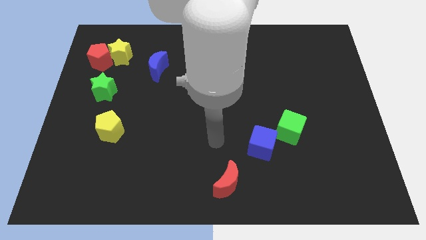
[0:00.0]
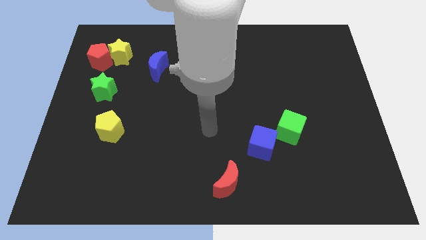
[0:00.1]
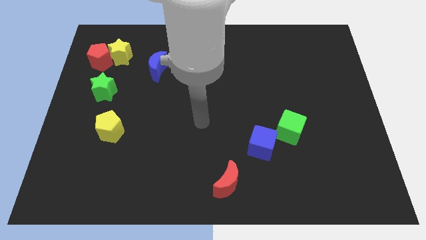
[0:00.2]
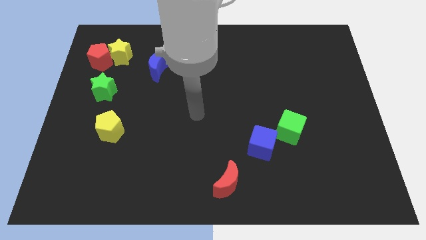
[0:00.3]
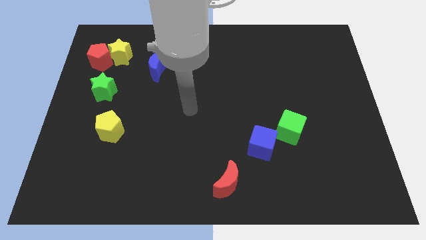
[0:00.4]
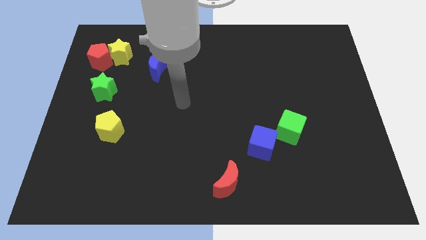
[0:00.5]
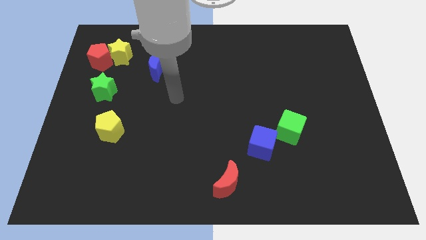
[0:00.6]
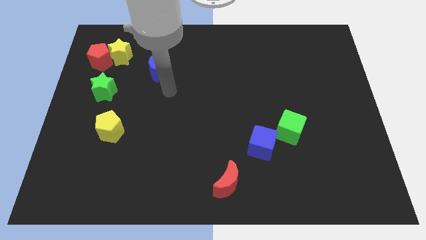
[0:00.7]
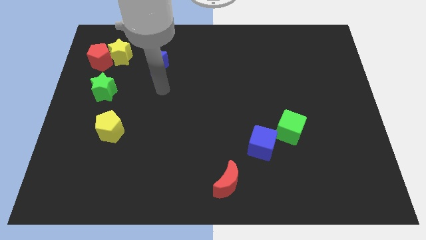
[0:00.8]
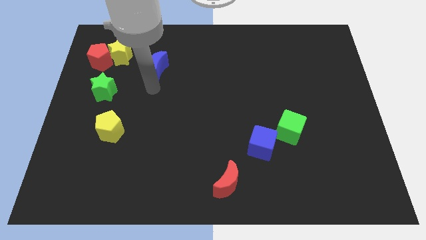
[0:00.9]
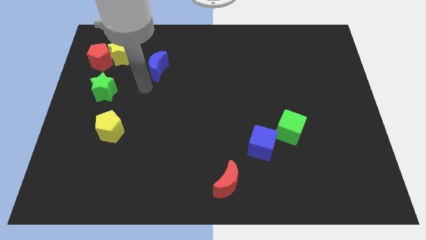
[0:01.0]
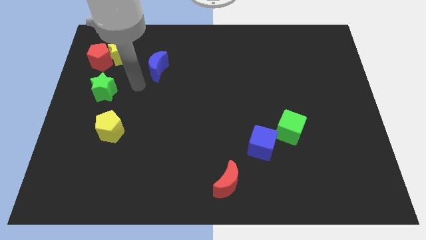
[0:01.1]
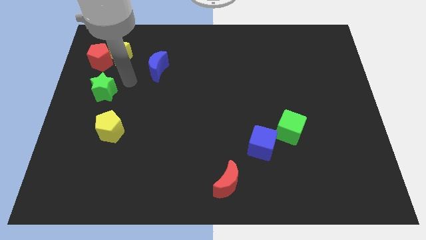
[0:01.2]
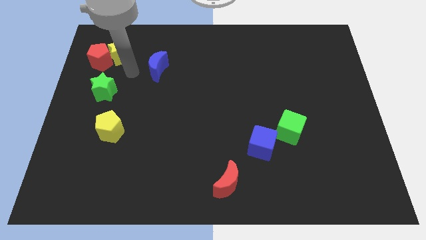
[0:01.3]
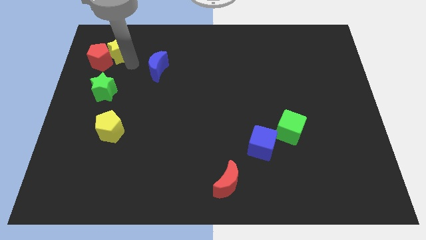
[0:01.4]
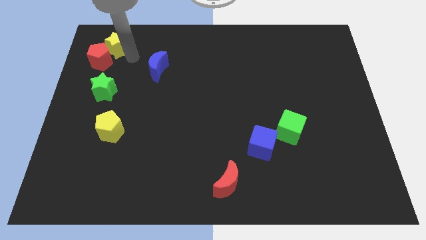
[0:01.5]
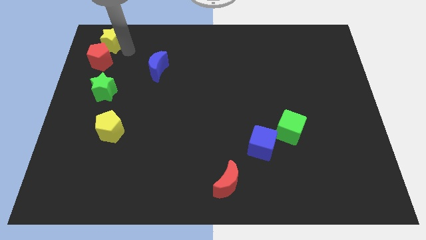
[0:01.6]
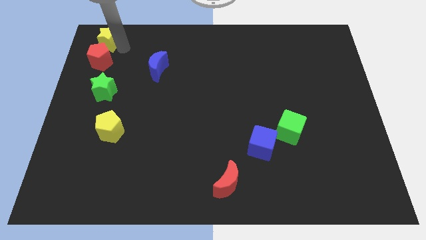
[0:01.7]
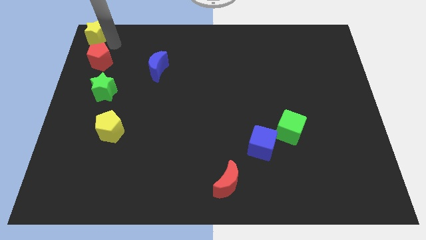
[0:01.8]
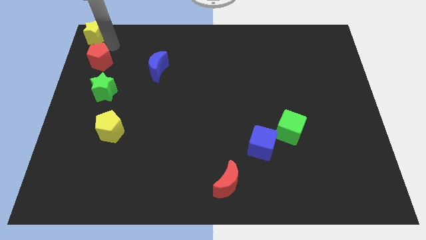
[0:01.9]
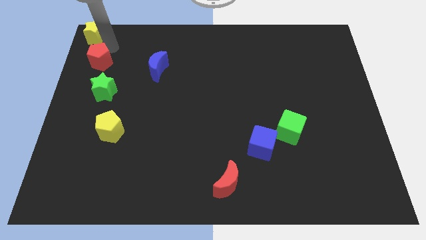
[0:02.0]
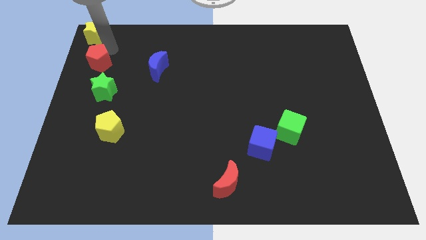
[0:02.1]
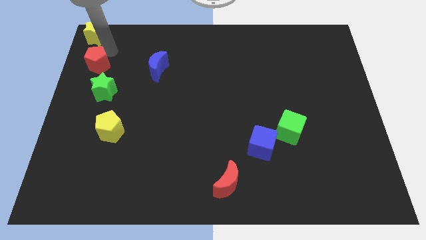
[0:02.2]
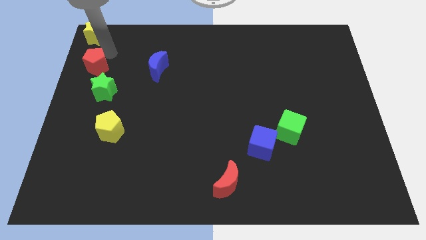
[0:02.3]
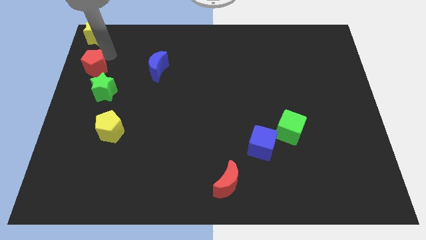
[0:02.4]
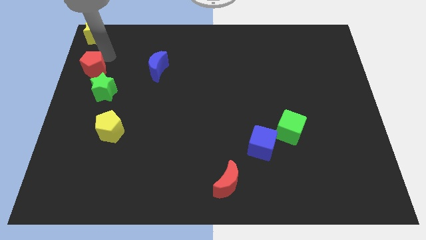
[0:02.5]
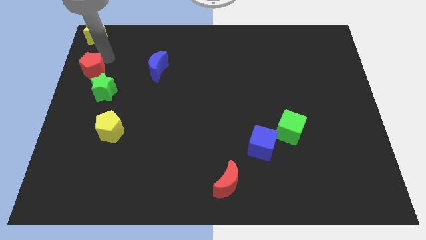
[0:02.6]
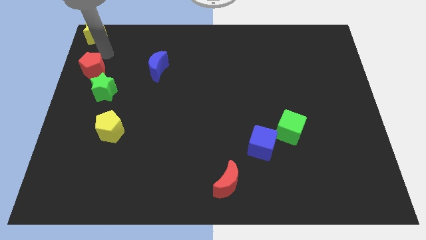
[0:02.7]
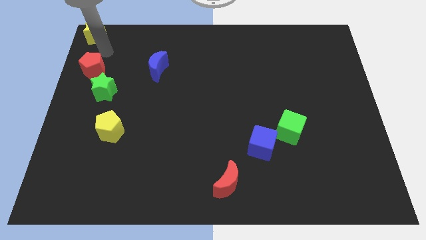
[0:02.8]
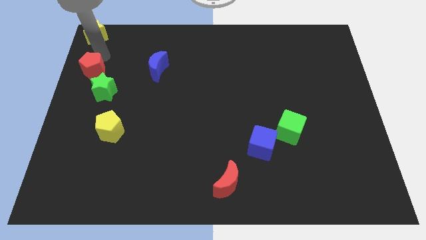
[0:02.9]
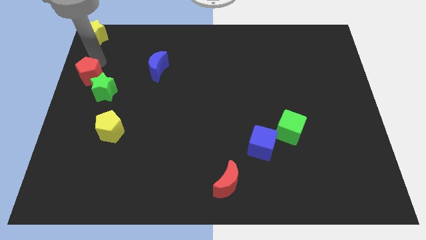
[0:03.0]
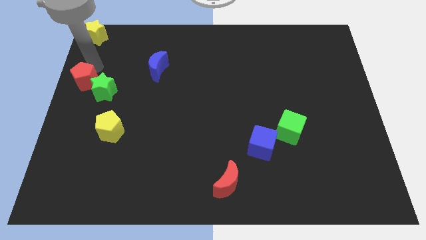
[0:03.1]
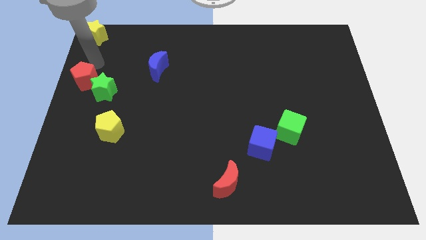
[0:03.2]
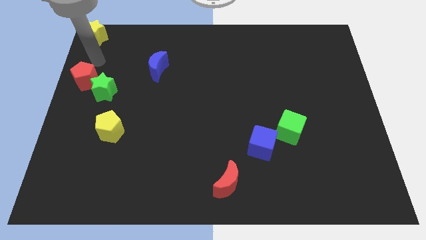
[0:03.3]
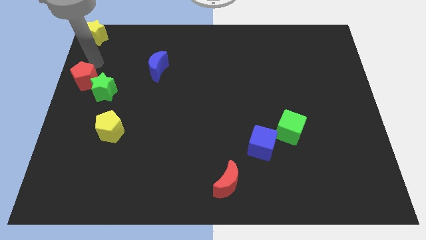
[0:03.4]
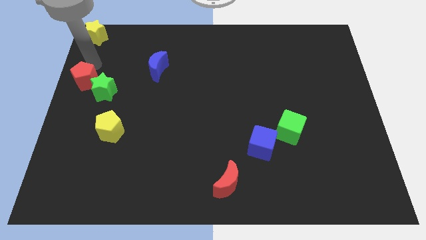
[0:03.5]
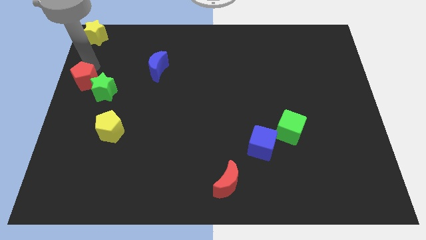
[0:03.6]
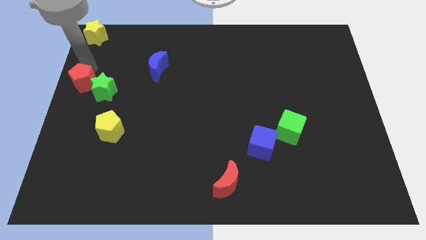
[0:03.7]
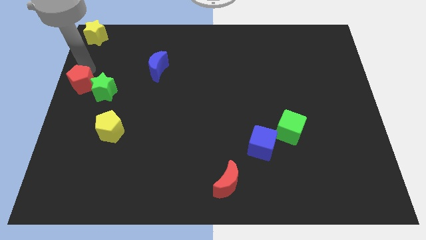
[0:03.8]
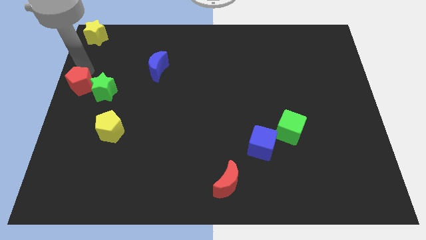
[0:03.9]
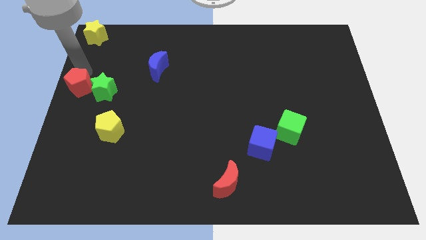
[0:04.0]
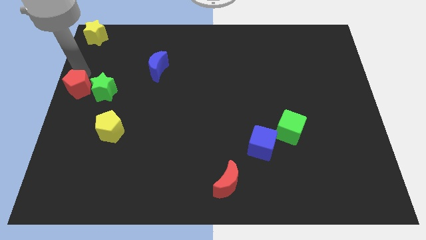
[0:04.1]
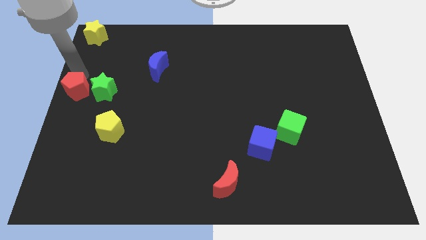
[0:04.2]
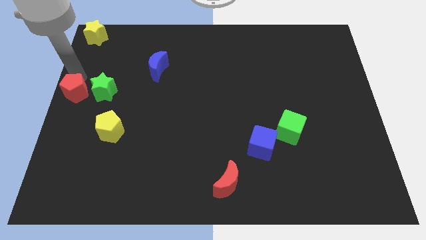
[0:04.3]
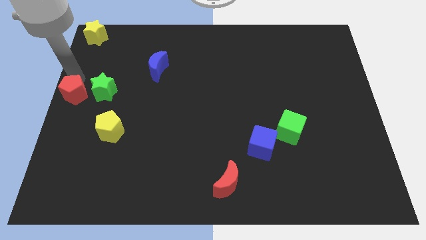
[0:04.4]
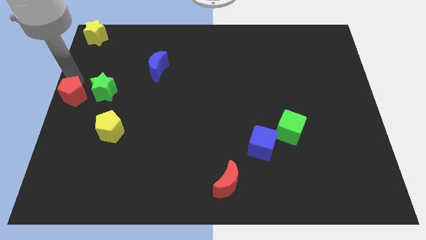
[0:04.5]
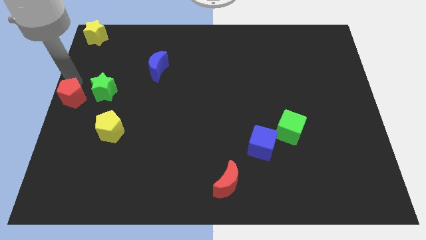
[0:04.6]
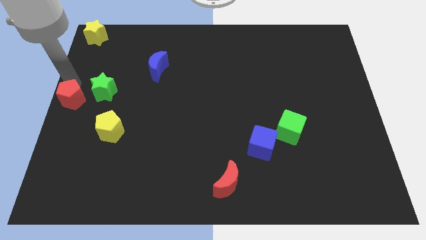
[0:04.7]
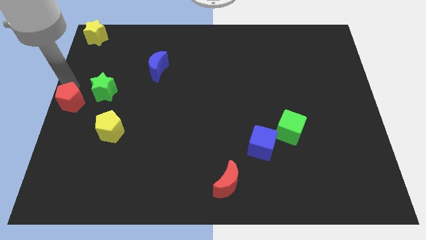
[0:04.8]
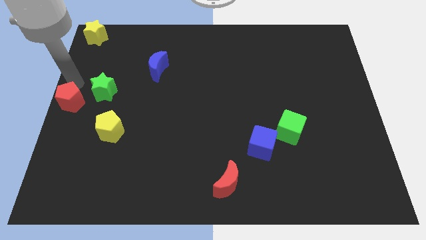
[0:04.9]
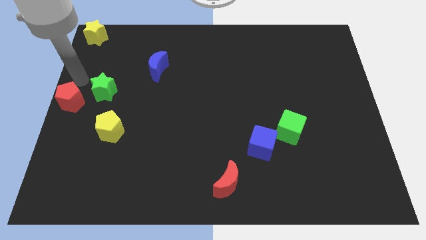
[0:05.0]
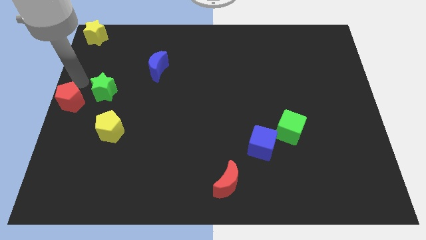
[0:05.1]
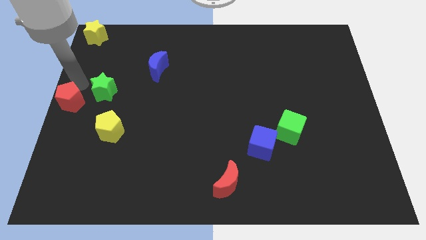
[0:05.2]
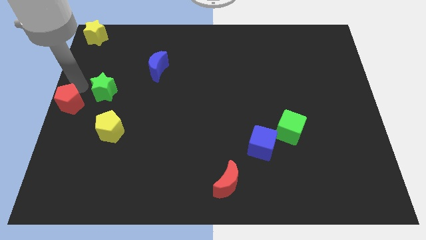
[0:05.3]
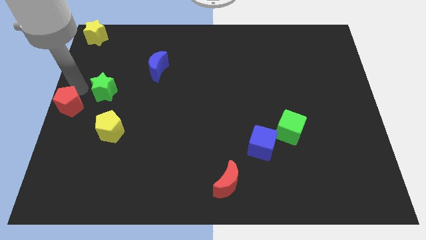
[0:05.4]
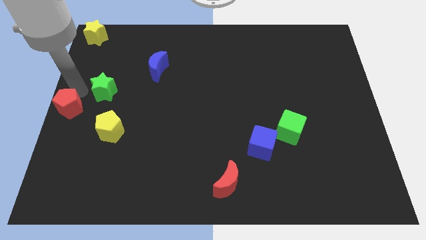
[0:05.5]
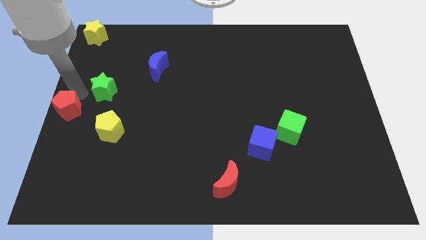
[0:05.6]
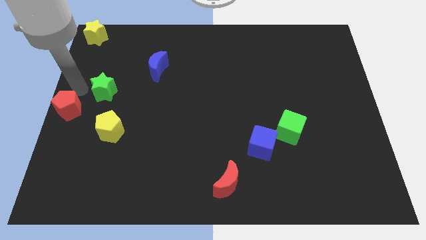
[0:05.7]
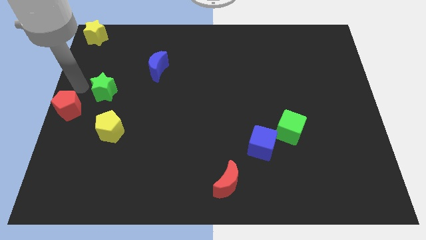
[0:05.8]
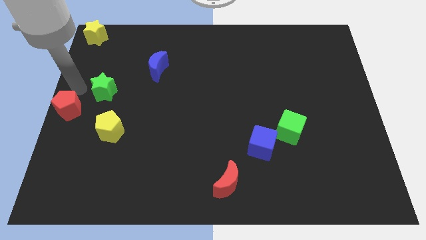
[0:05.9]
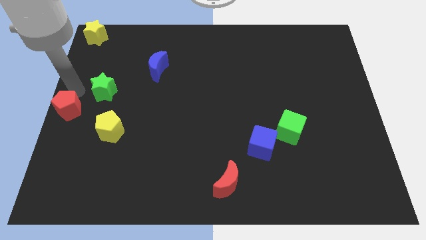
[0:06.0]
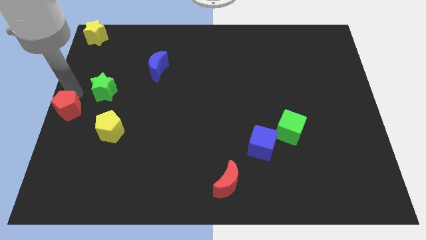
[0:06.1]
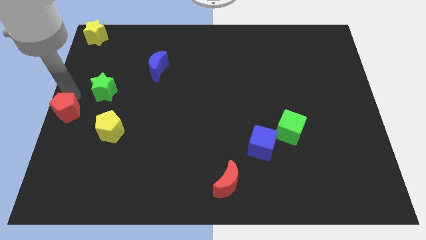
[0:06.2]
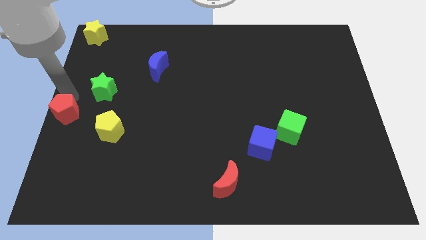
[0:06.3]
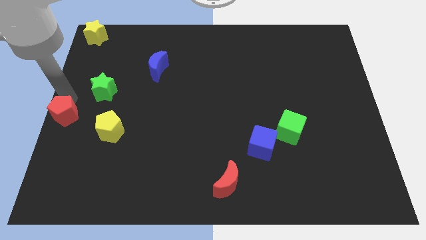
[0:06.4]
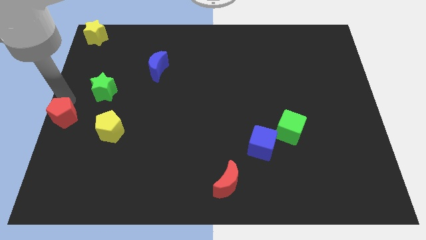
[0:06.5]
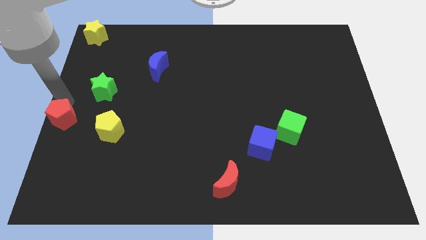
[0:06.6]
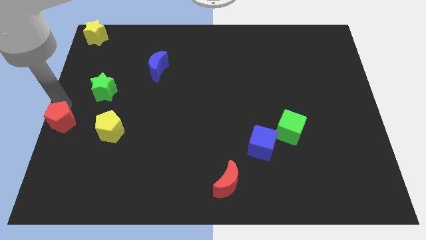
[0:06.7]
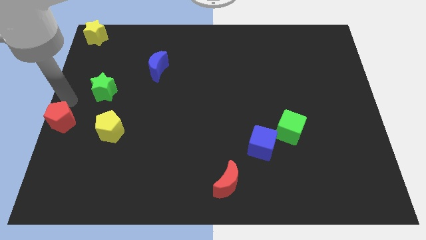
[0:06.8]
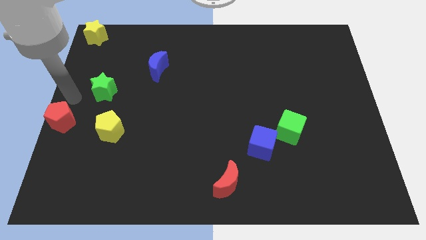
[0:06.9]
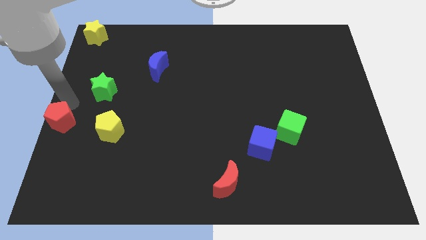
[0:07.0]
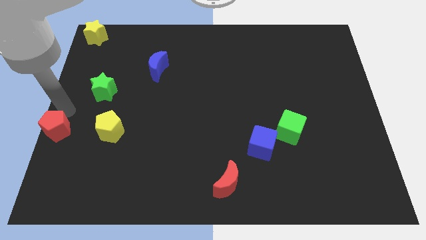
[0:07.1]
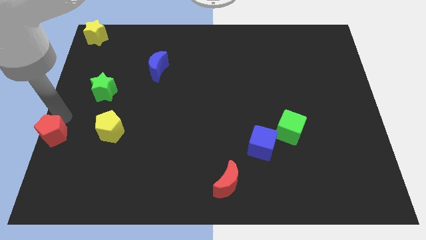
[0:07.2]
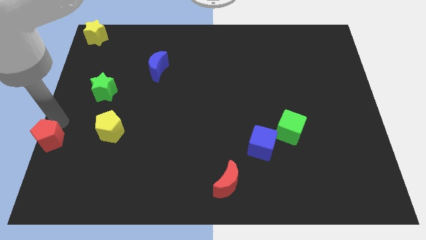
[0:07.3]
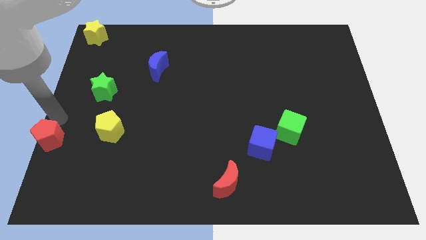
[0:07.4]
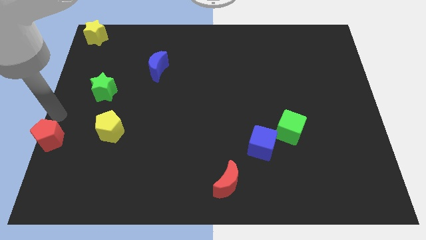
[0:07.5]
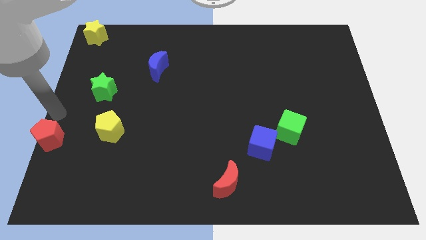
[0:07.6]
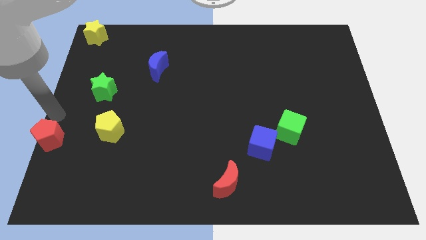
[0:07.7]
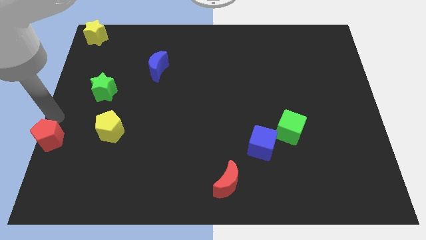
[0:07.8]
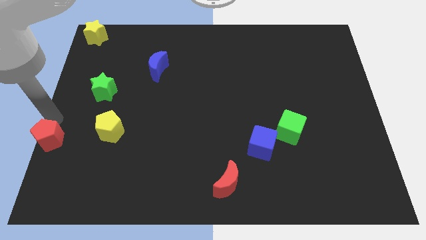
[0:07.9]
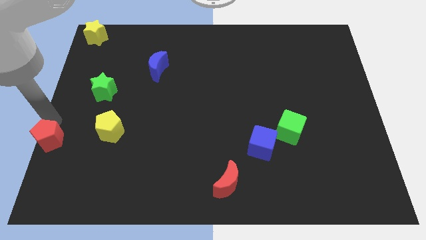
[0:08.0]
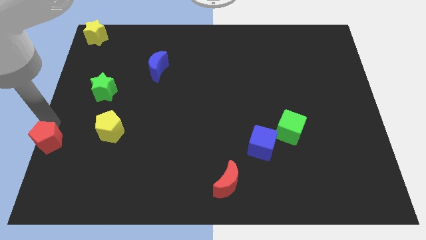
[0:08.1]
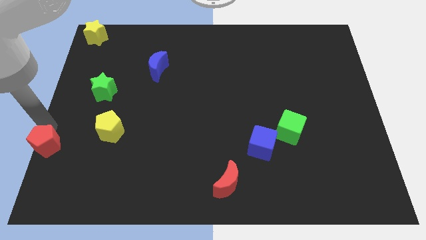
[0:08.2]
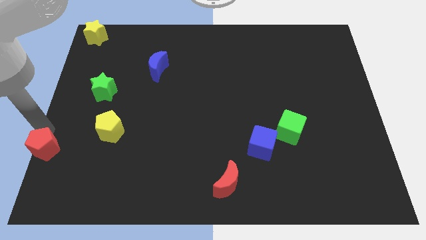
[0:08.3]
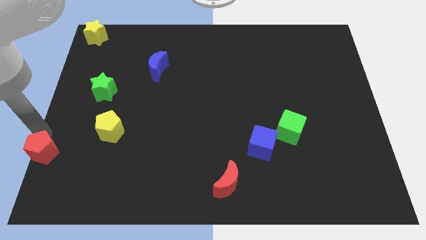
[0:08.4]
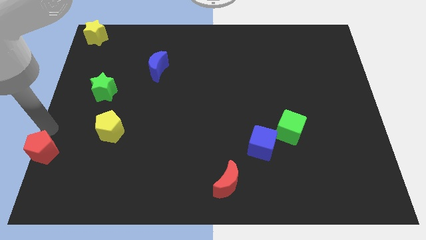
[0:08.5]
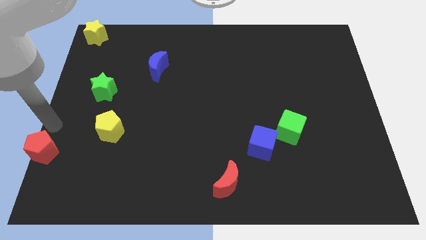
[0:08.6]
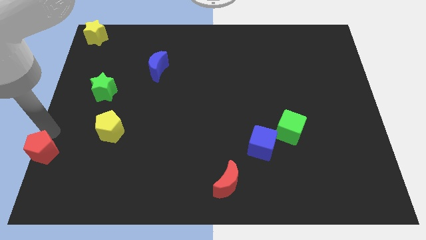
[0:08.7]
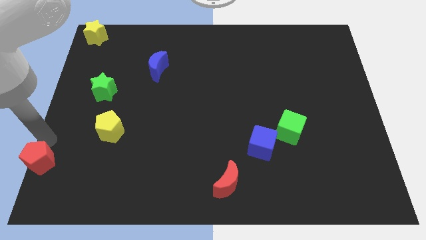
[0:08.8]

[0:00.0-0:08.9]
slide the red pentagon to the bottom left of the board
